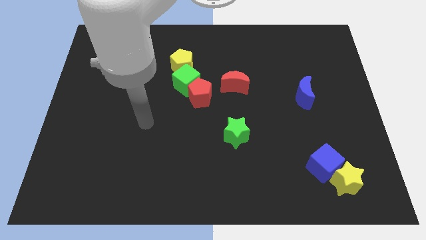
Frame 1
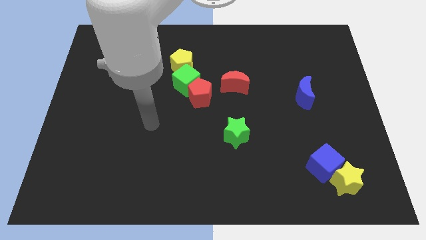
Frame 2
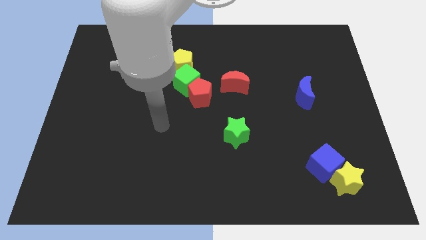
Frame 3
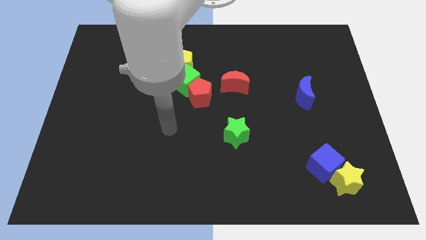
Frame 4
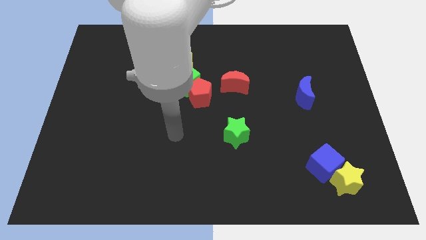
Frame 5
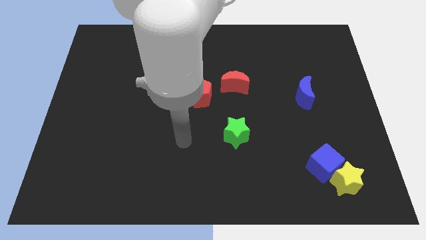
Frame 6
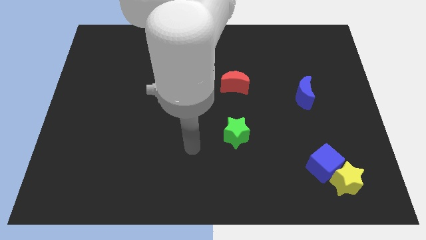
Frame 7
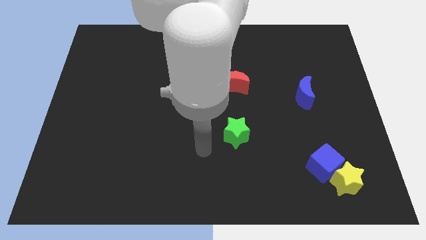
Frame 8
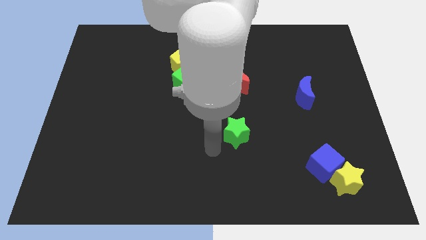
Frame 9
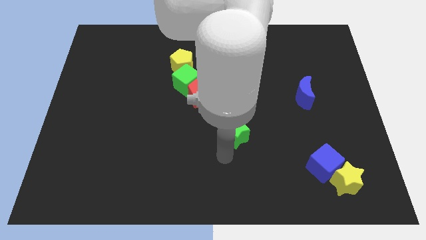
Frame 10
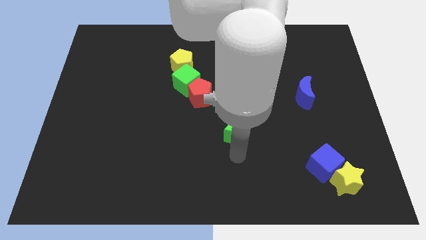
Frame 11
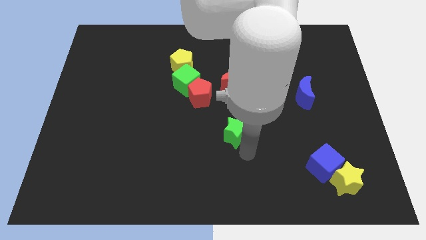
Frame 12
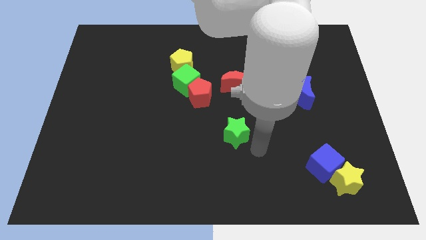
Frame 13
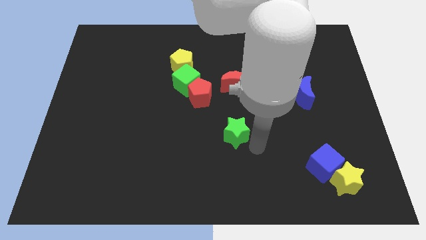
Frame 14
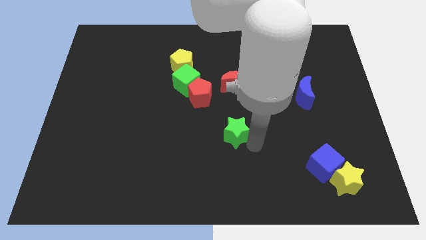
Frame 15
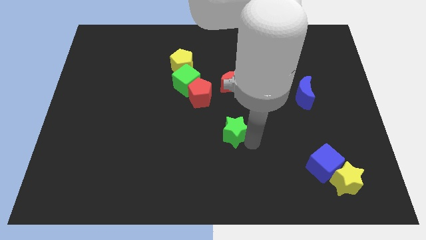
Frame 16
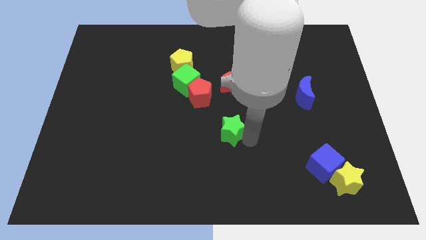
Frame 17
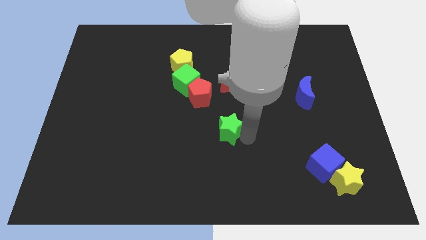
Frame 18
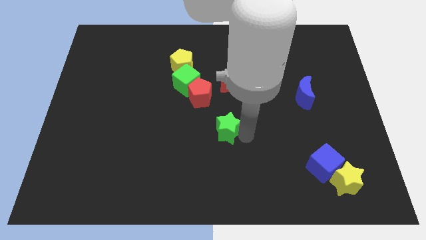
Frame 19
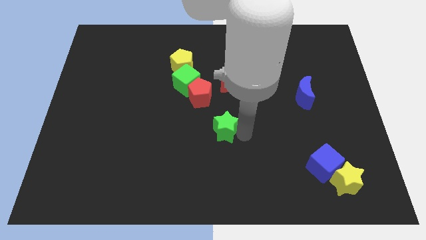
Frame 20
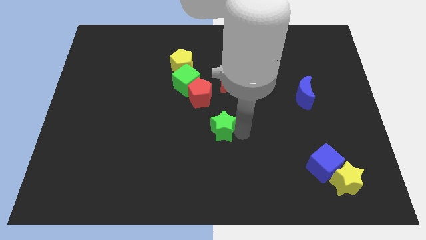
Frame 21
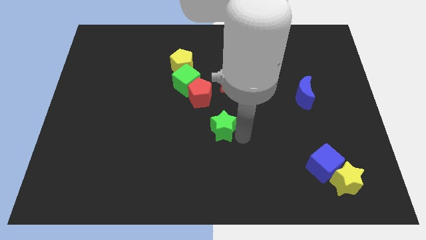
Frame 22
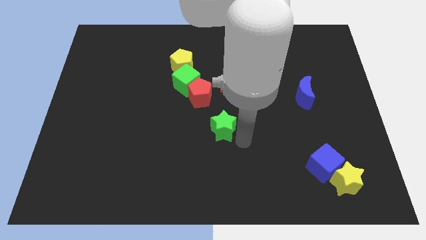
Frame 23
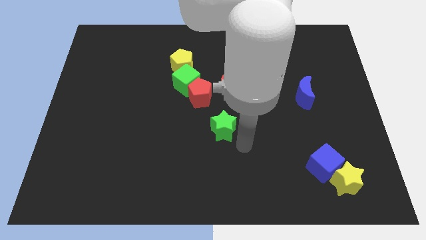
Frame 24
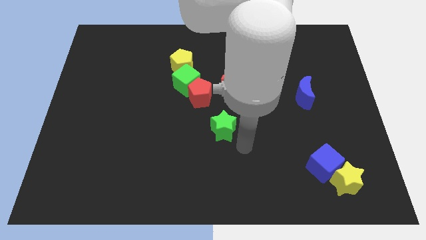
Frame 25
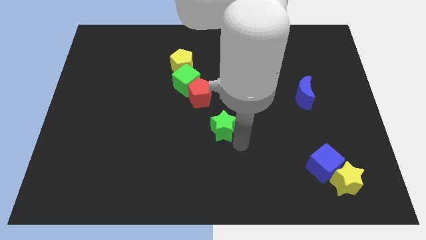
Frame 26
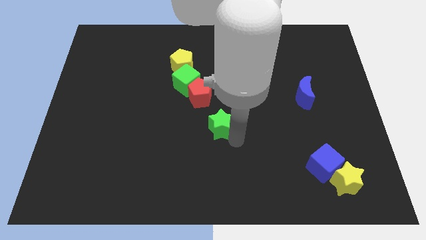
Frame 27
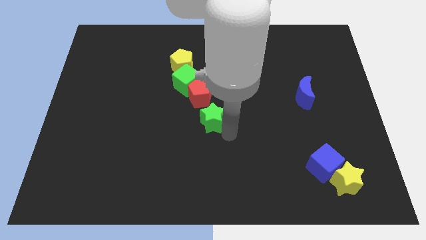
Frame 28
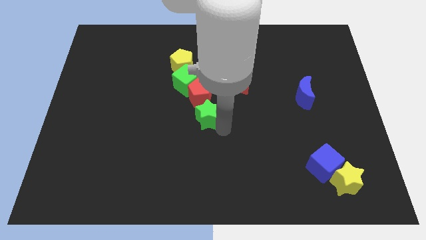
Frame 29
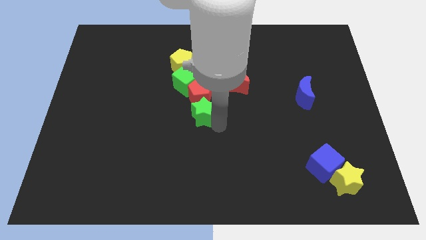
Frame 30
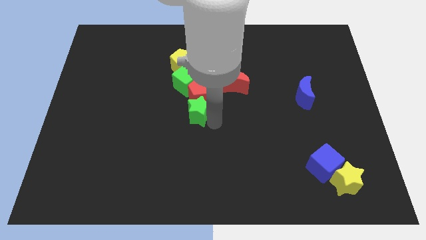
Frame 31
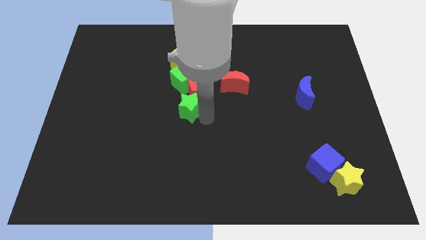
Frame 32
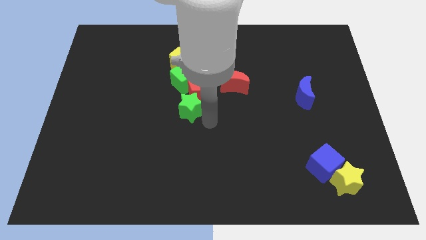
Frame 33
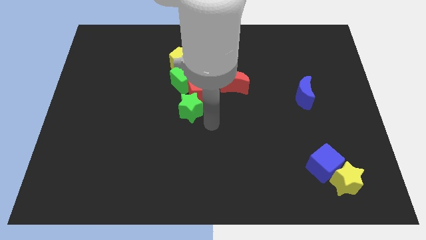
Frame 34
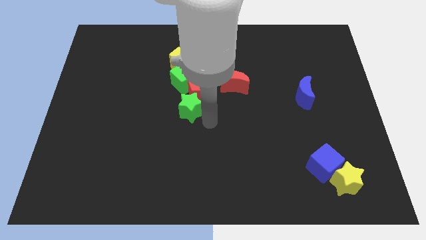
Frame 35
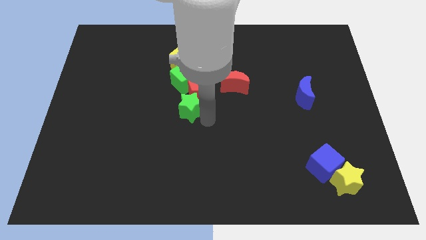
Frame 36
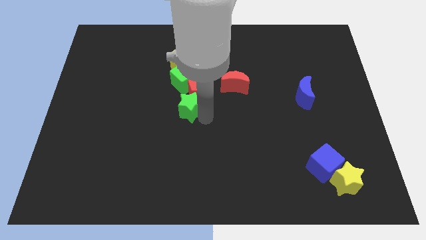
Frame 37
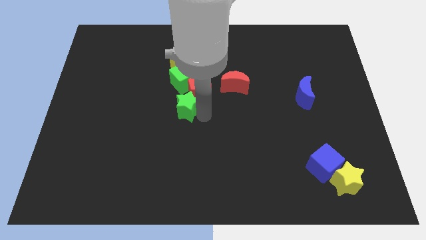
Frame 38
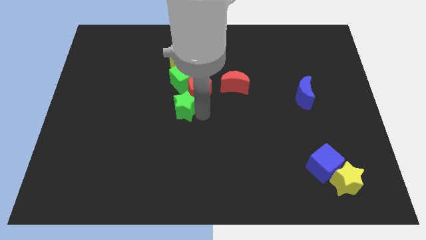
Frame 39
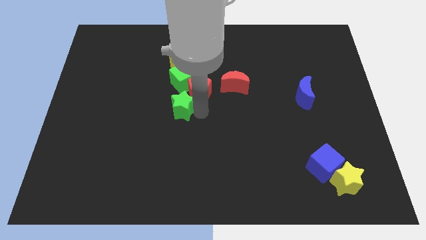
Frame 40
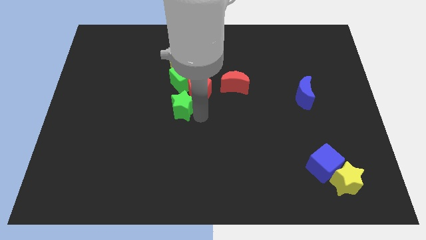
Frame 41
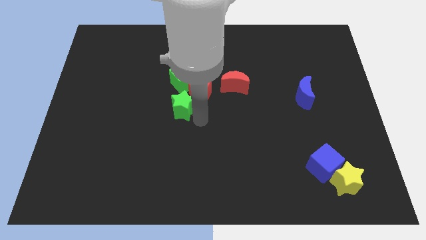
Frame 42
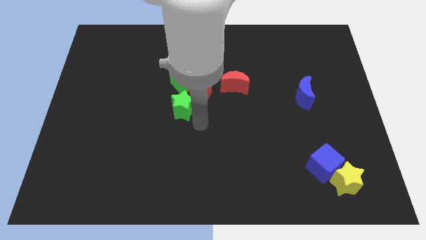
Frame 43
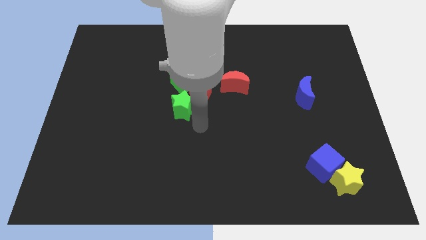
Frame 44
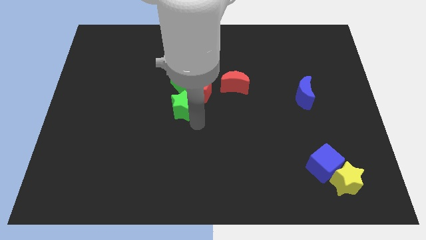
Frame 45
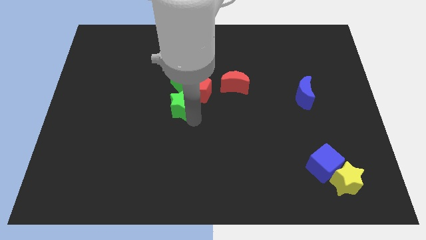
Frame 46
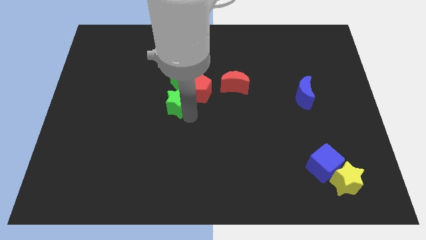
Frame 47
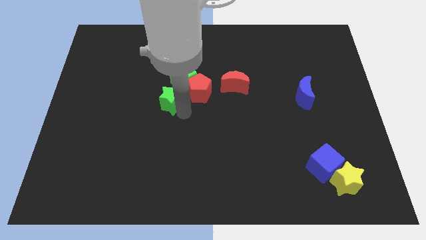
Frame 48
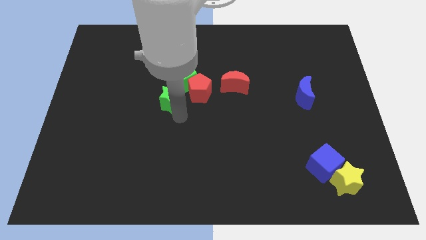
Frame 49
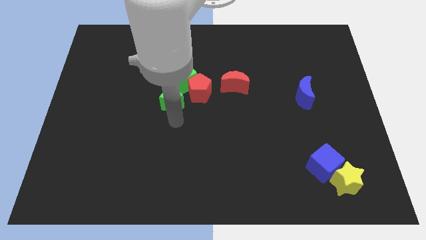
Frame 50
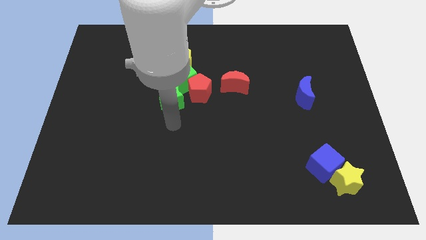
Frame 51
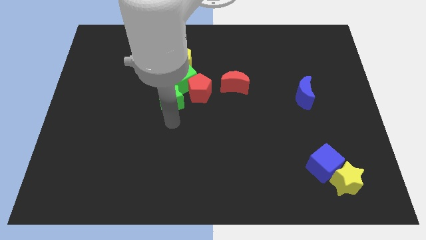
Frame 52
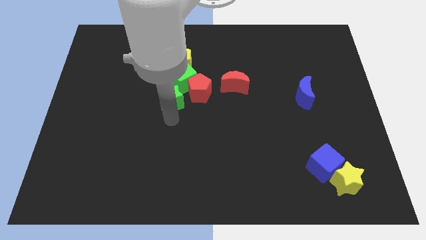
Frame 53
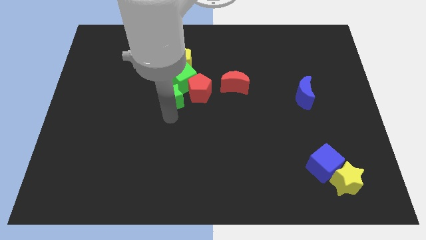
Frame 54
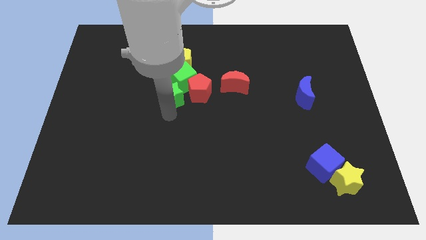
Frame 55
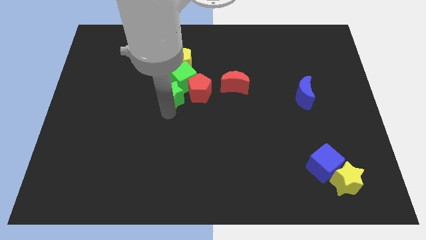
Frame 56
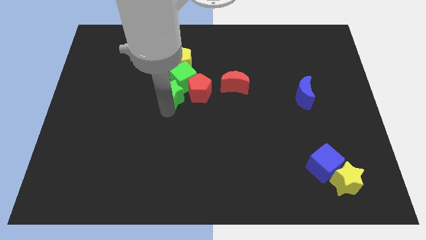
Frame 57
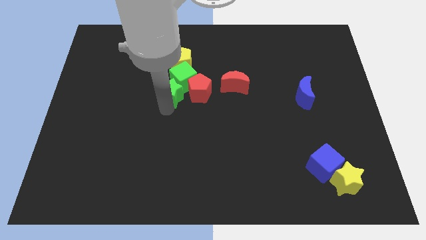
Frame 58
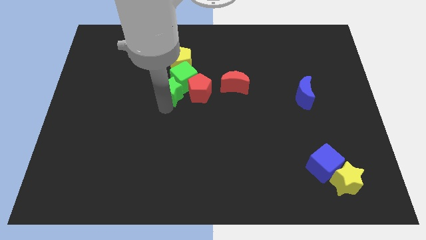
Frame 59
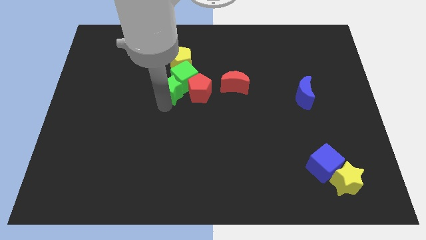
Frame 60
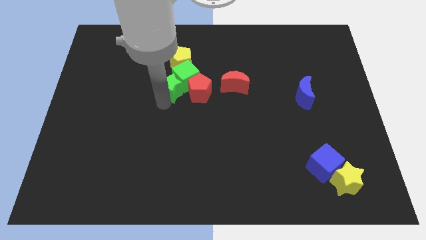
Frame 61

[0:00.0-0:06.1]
push the green star upwards and left

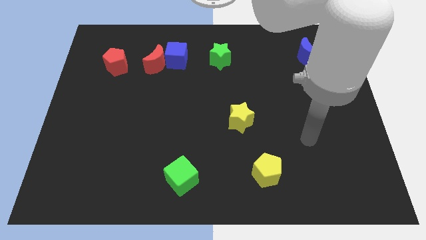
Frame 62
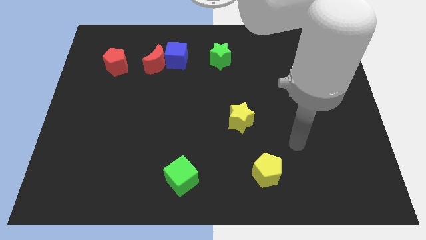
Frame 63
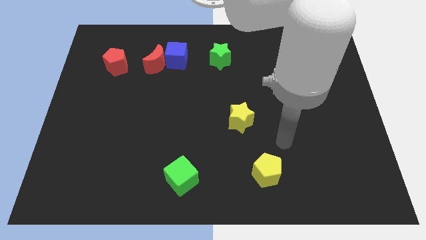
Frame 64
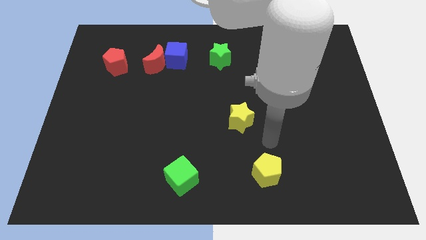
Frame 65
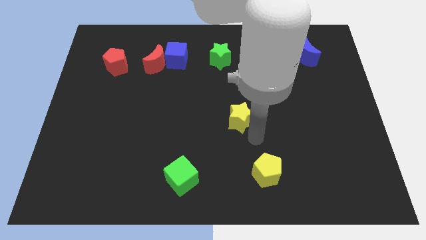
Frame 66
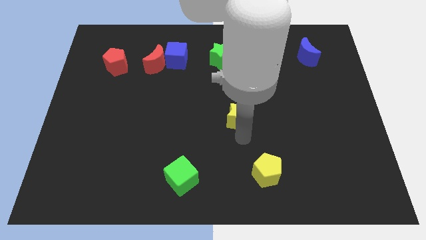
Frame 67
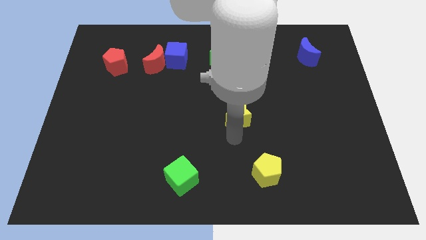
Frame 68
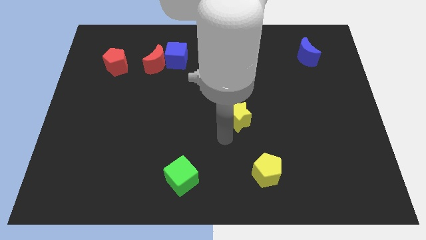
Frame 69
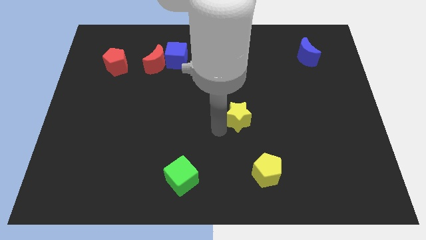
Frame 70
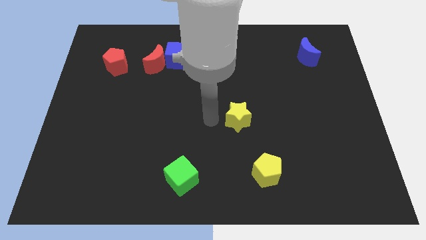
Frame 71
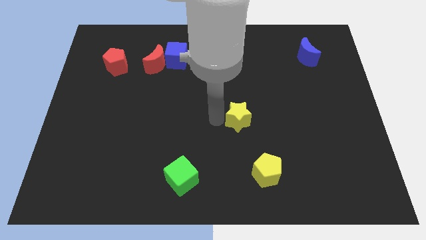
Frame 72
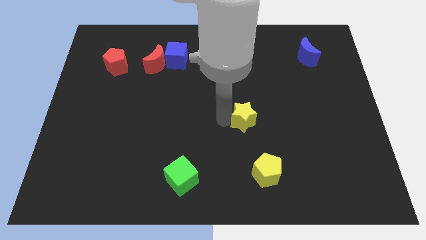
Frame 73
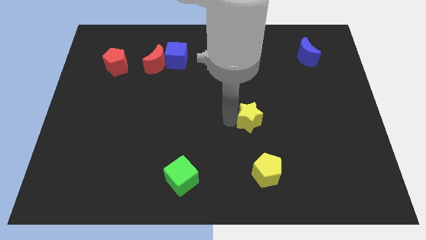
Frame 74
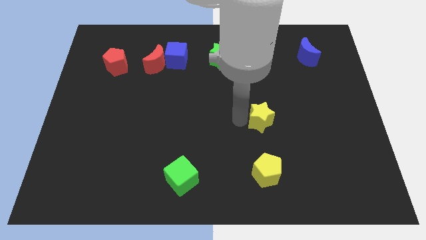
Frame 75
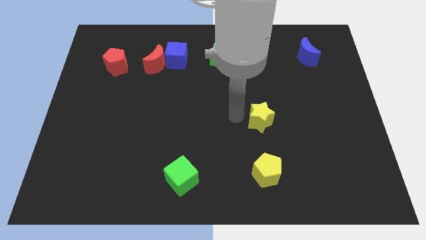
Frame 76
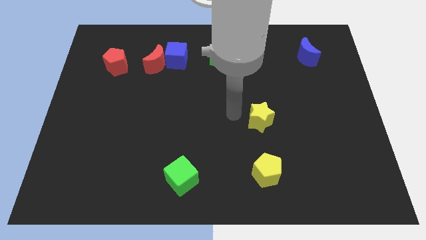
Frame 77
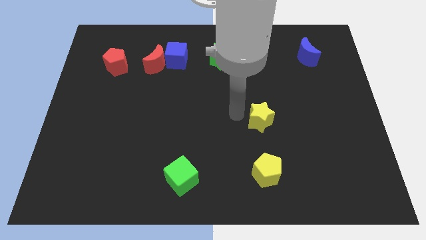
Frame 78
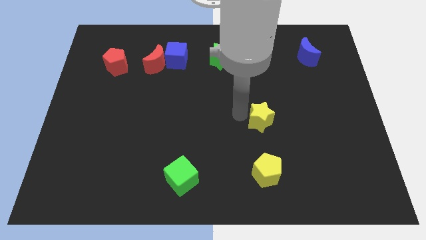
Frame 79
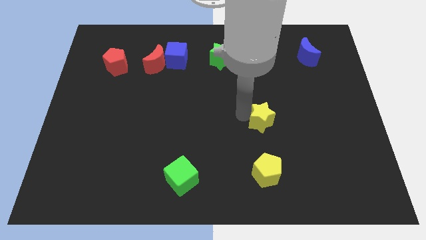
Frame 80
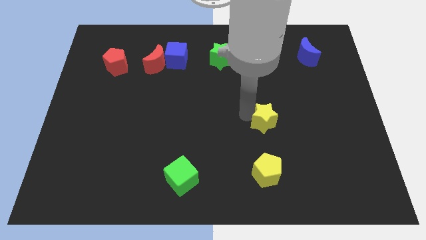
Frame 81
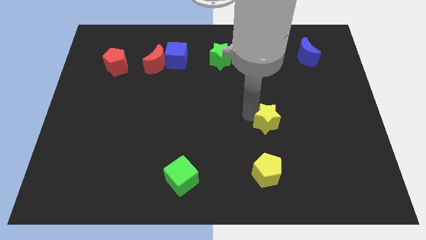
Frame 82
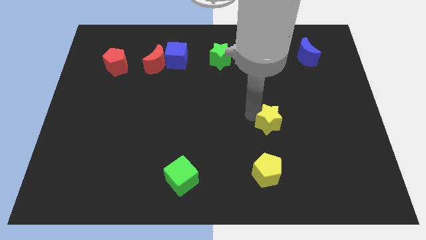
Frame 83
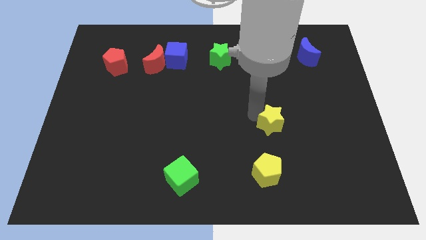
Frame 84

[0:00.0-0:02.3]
slightly move the yellow star to the right

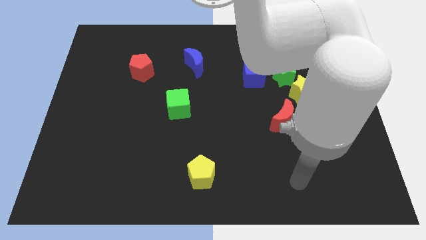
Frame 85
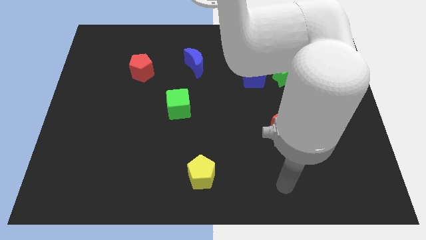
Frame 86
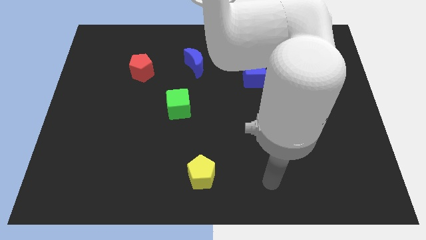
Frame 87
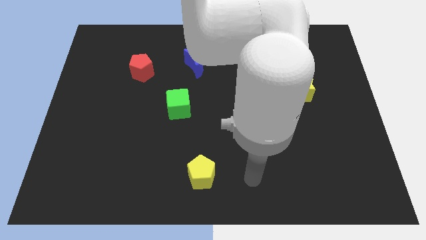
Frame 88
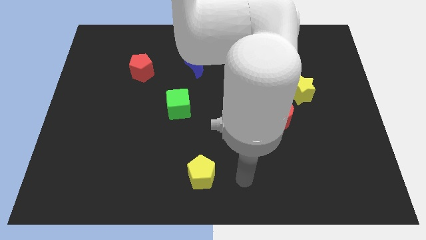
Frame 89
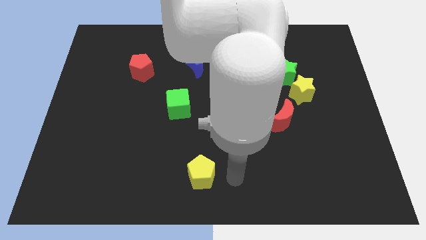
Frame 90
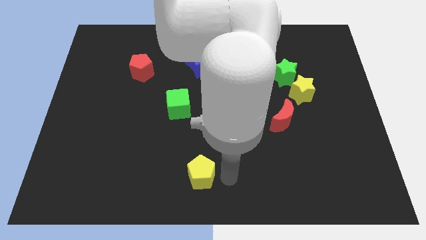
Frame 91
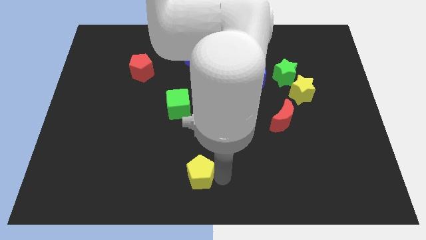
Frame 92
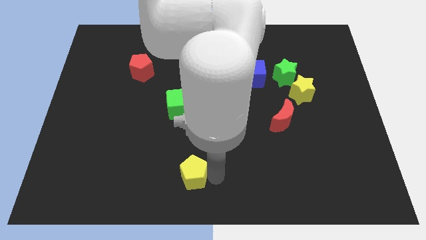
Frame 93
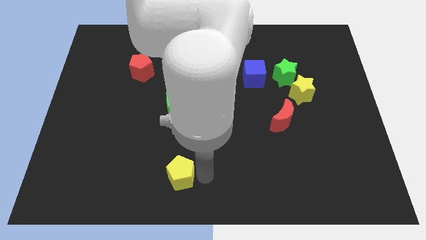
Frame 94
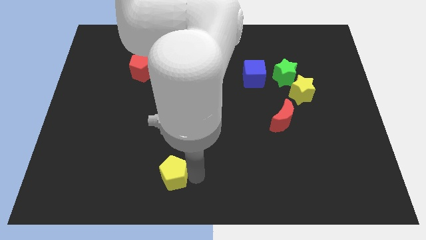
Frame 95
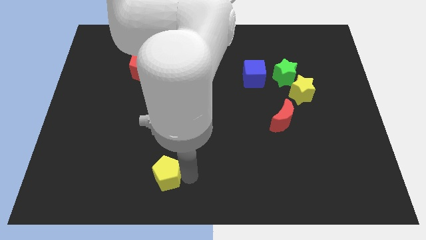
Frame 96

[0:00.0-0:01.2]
move the yellow pentagon left somewhat
